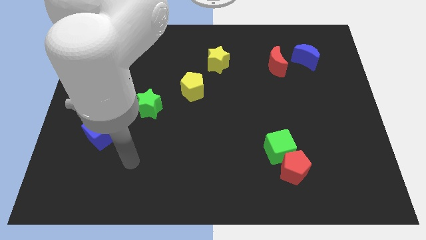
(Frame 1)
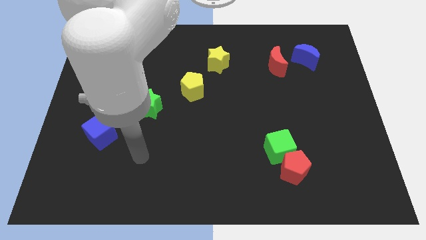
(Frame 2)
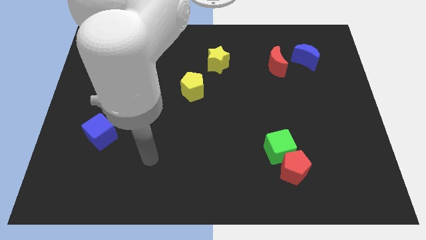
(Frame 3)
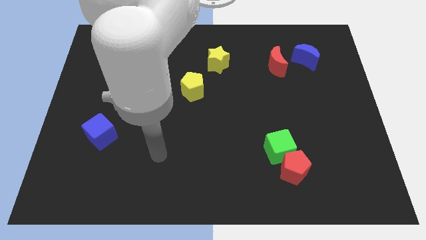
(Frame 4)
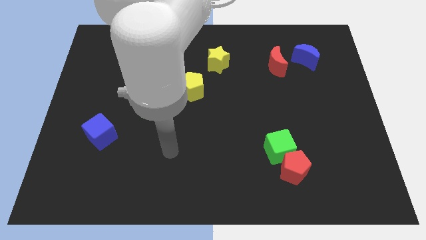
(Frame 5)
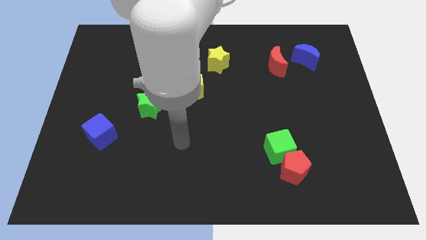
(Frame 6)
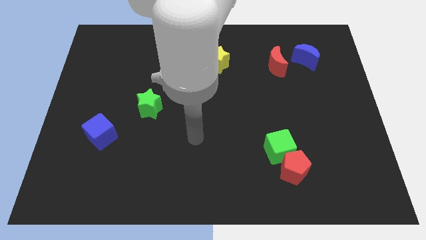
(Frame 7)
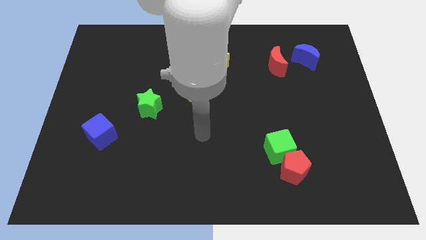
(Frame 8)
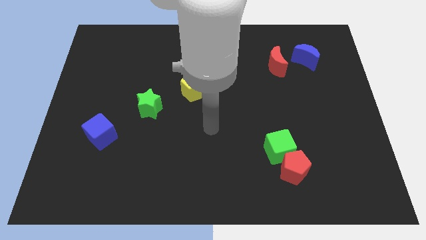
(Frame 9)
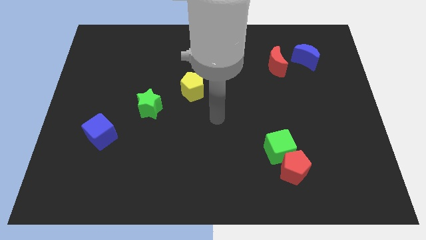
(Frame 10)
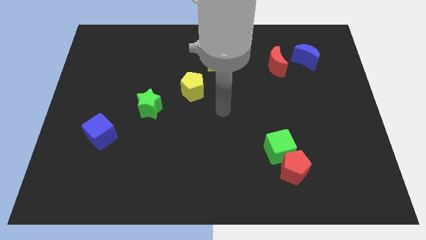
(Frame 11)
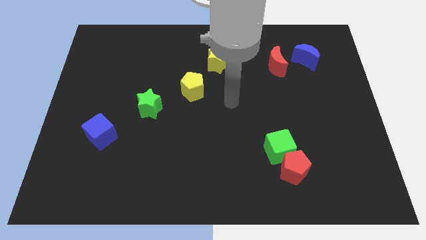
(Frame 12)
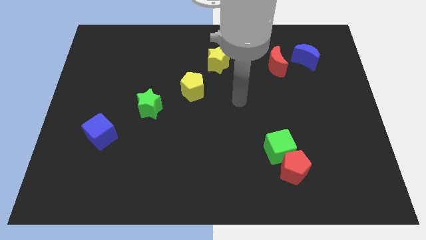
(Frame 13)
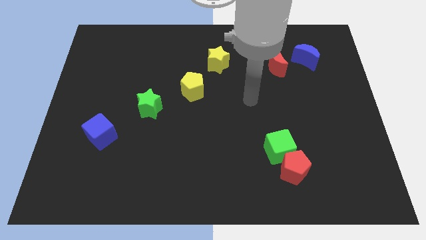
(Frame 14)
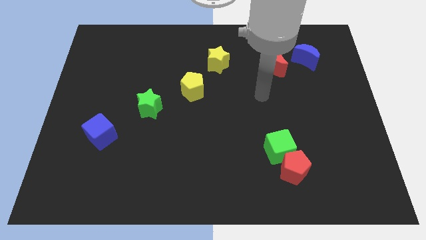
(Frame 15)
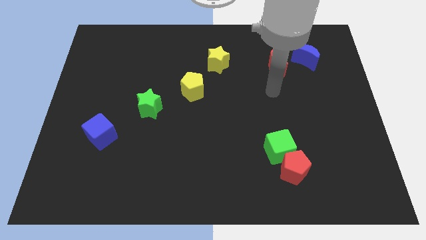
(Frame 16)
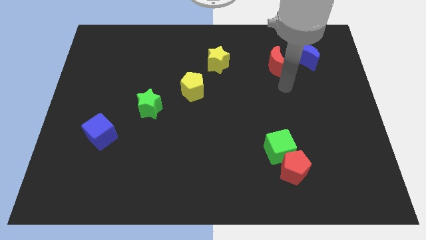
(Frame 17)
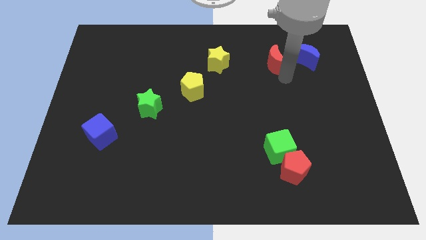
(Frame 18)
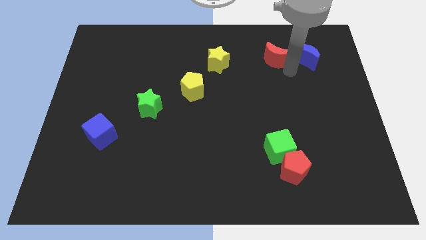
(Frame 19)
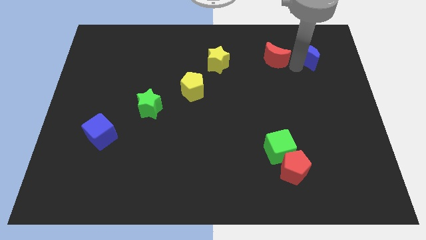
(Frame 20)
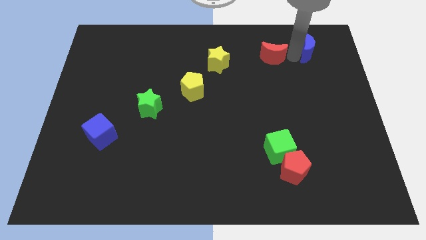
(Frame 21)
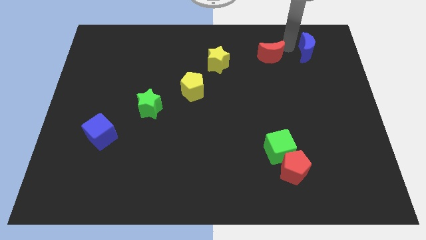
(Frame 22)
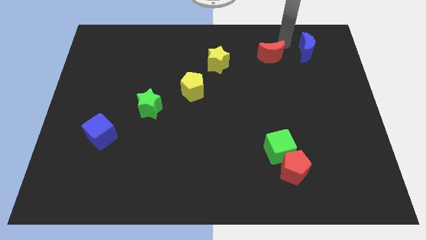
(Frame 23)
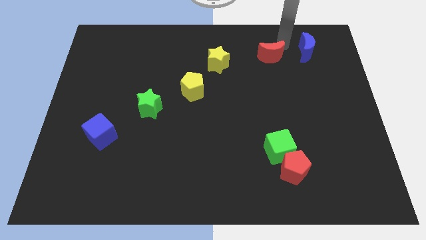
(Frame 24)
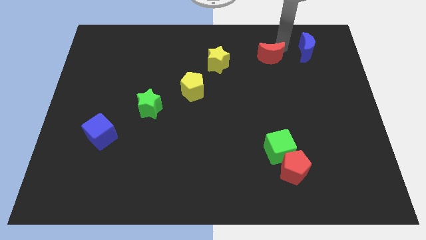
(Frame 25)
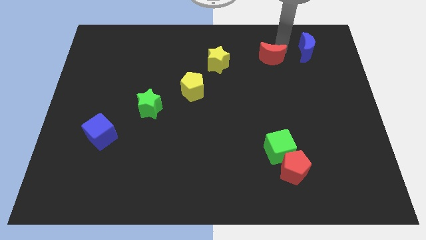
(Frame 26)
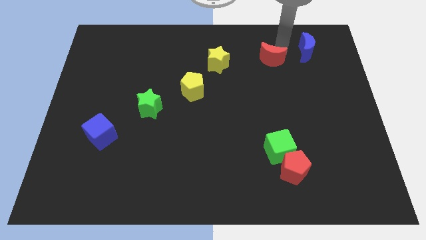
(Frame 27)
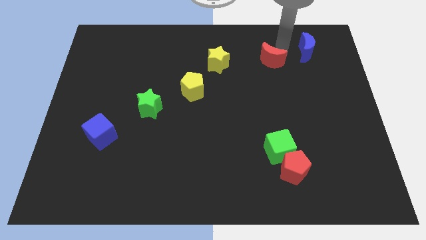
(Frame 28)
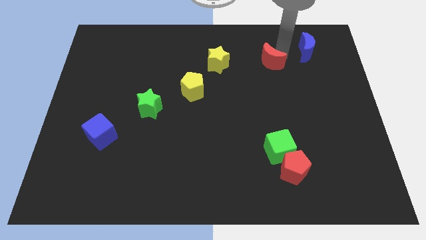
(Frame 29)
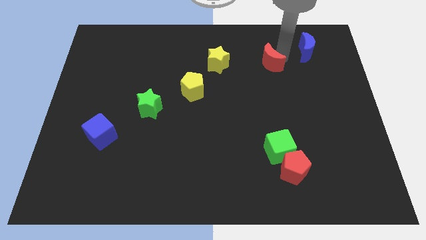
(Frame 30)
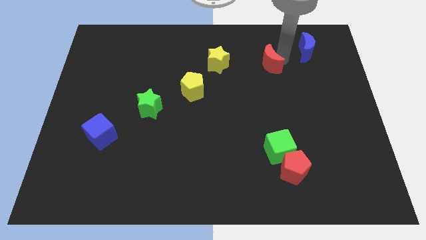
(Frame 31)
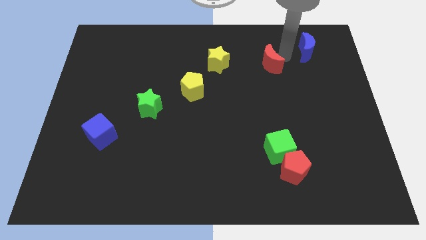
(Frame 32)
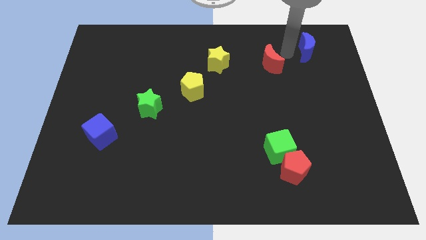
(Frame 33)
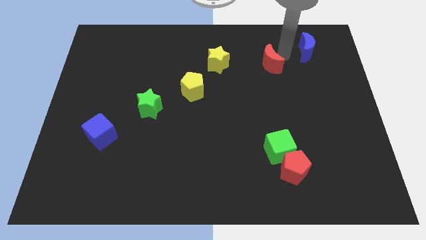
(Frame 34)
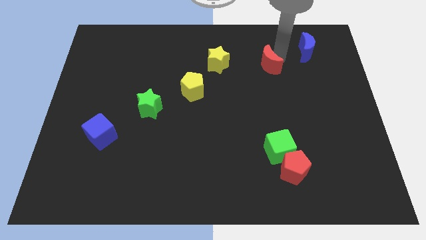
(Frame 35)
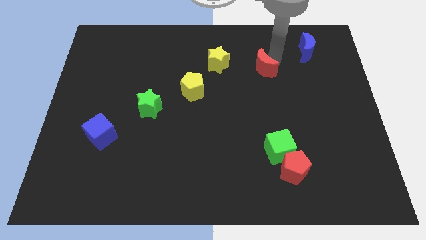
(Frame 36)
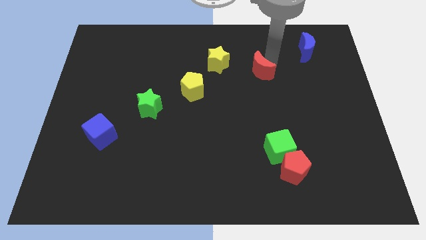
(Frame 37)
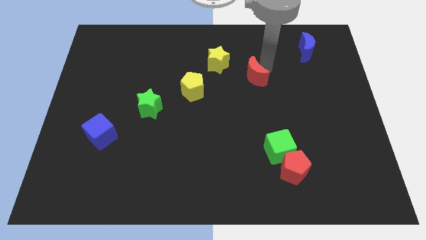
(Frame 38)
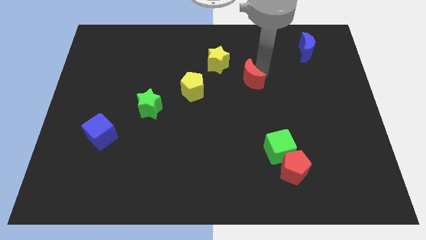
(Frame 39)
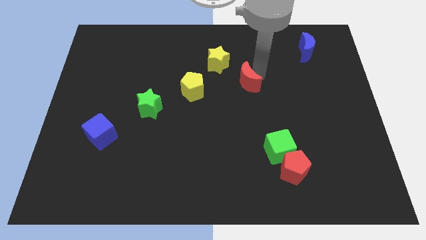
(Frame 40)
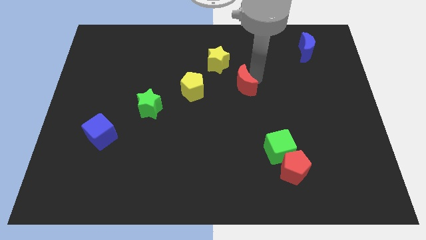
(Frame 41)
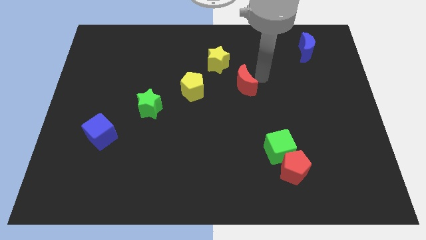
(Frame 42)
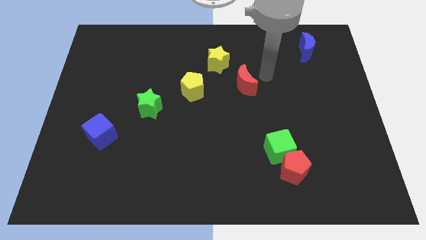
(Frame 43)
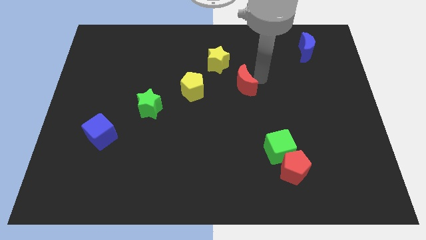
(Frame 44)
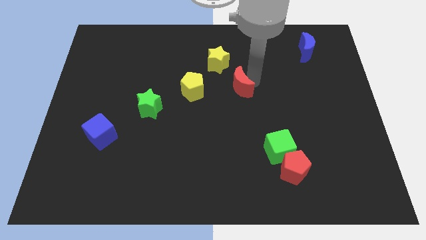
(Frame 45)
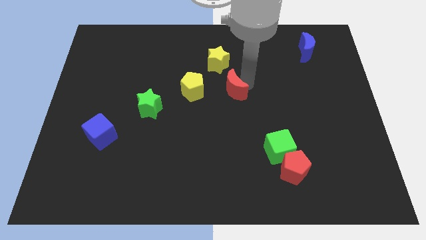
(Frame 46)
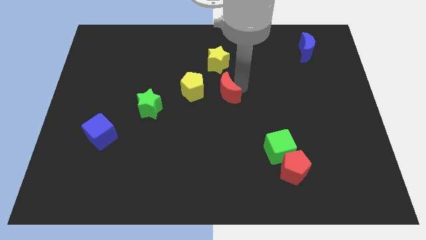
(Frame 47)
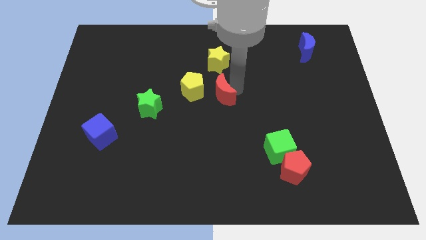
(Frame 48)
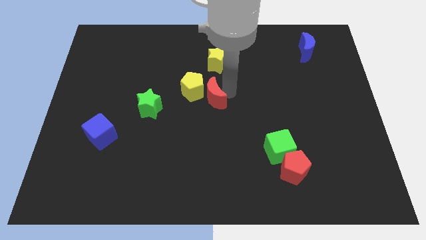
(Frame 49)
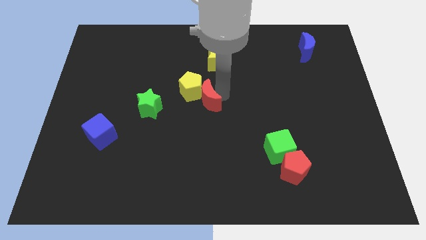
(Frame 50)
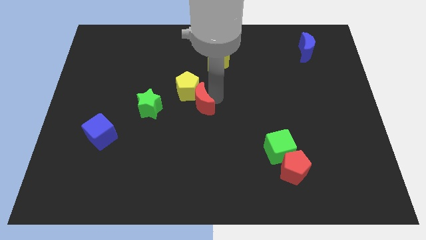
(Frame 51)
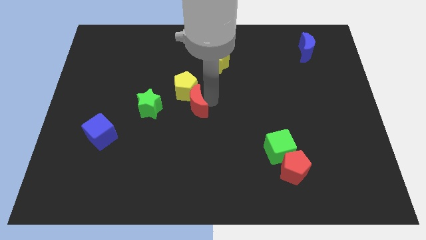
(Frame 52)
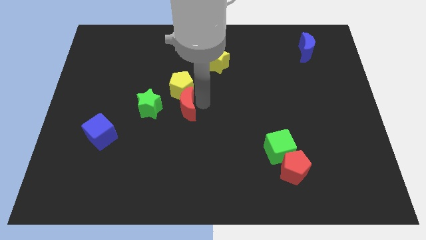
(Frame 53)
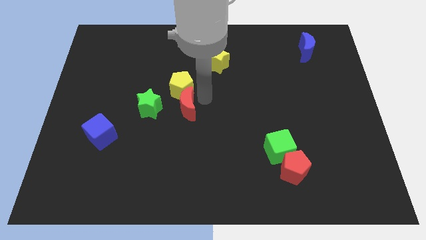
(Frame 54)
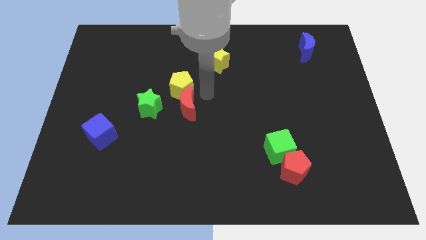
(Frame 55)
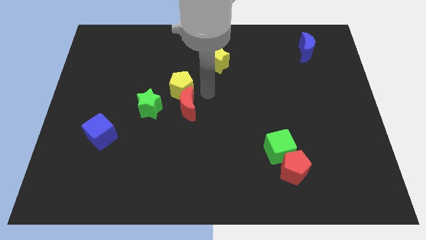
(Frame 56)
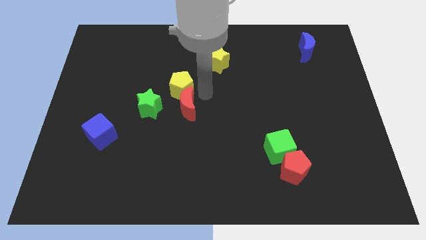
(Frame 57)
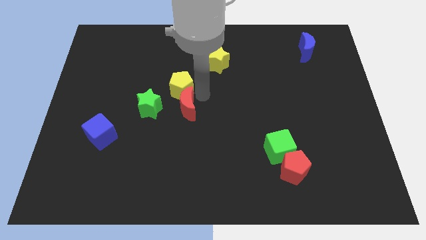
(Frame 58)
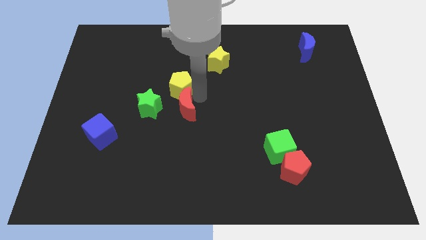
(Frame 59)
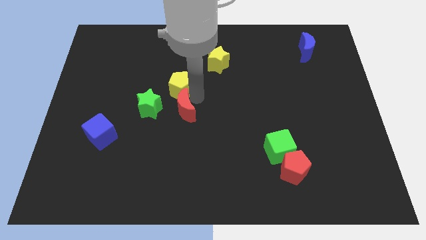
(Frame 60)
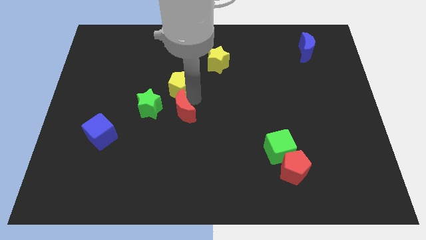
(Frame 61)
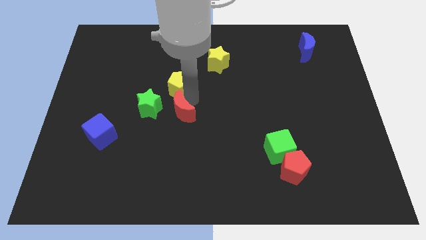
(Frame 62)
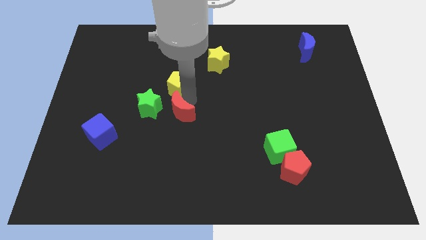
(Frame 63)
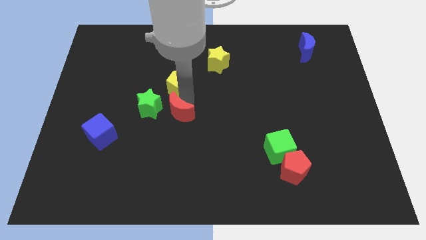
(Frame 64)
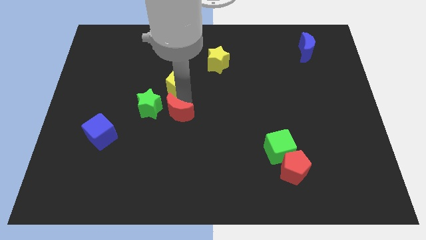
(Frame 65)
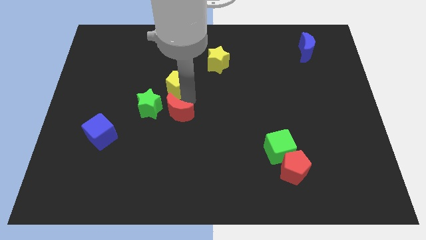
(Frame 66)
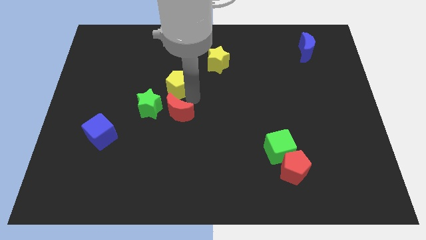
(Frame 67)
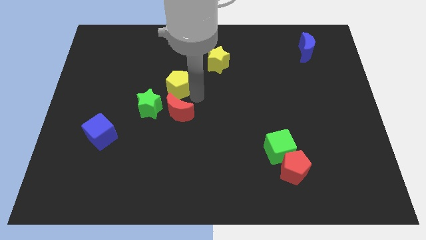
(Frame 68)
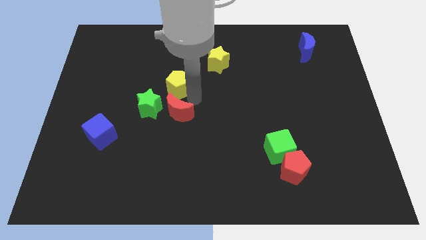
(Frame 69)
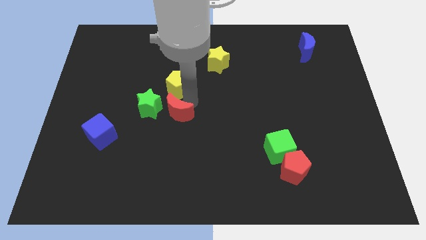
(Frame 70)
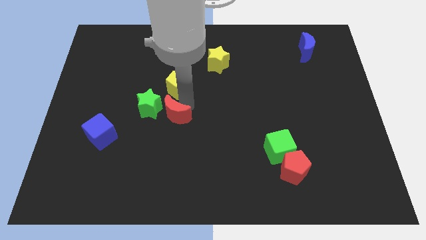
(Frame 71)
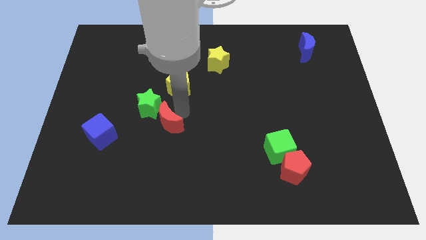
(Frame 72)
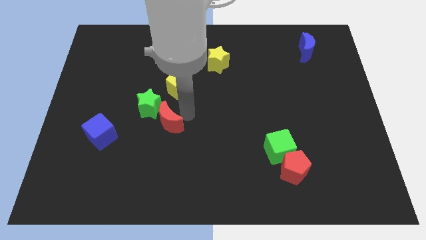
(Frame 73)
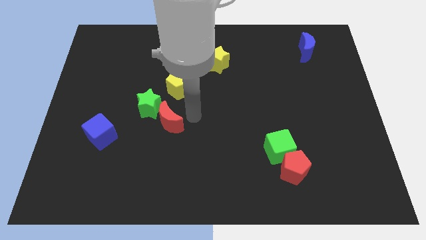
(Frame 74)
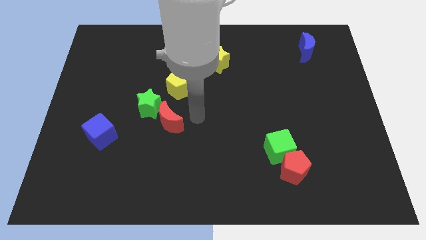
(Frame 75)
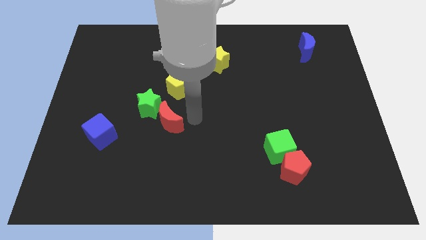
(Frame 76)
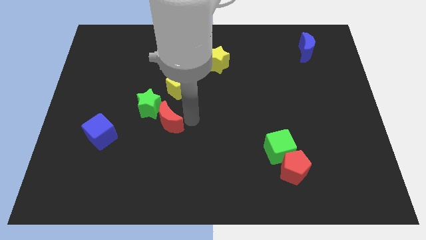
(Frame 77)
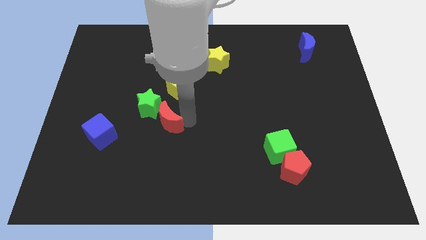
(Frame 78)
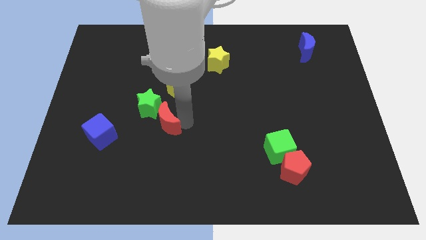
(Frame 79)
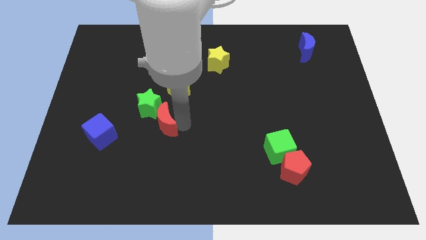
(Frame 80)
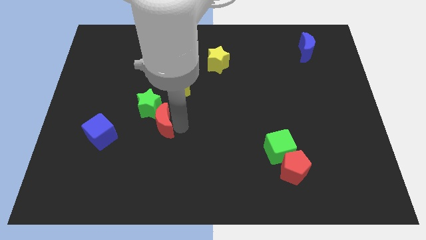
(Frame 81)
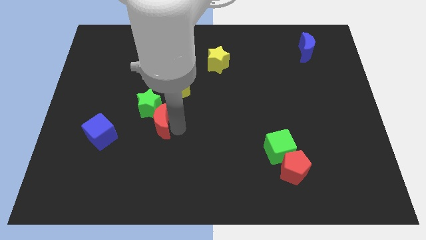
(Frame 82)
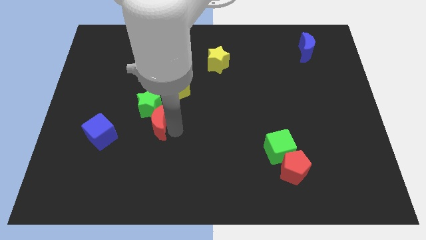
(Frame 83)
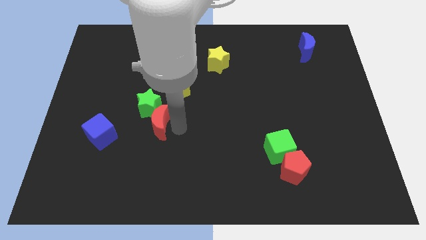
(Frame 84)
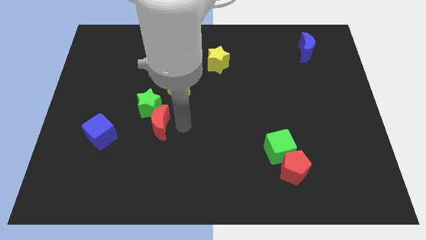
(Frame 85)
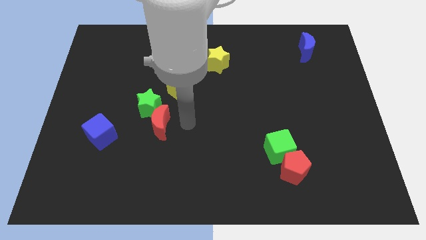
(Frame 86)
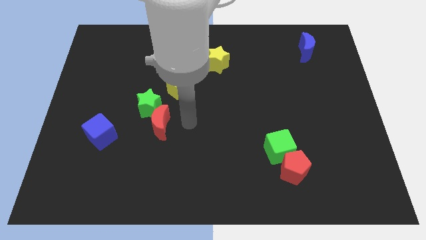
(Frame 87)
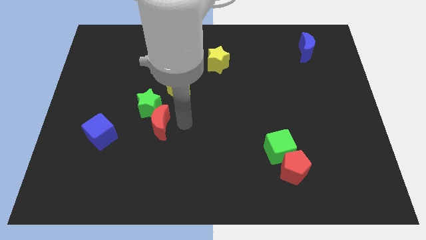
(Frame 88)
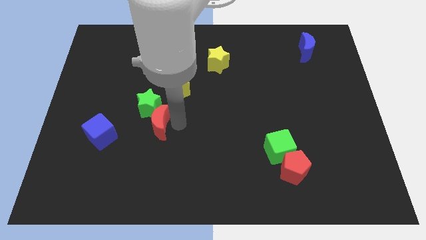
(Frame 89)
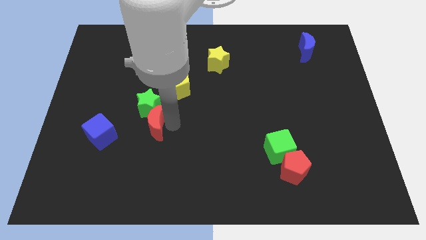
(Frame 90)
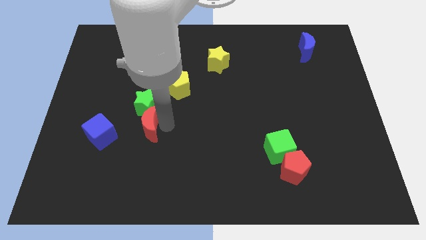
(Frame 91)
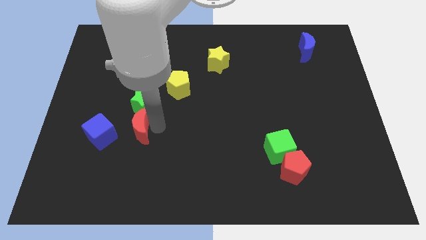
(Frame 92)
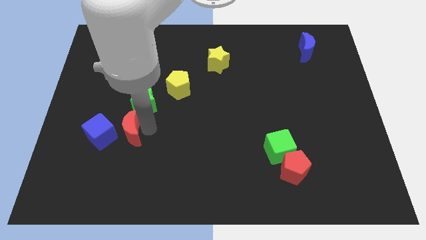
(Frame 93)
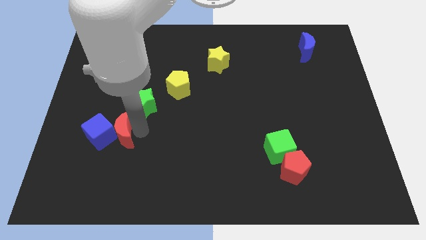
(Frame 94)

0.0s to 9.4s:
slide the red moon next to the blue cube
